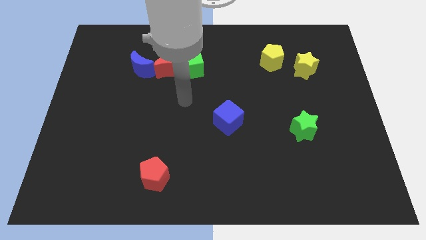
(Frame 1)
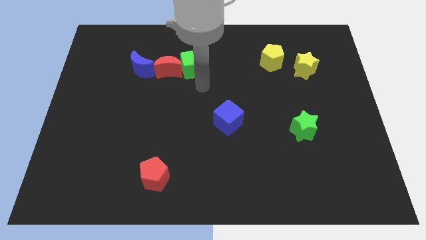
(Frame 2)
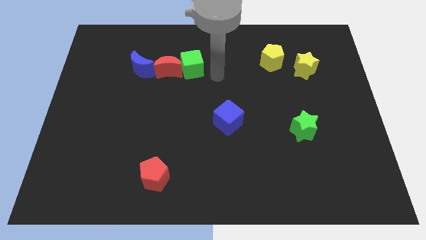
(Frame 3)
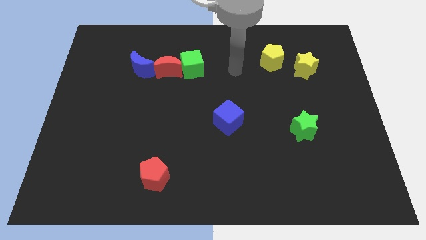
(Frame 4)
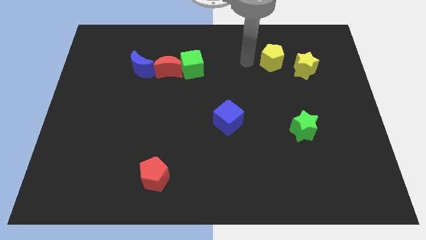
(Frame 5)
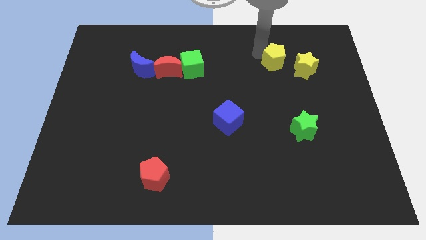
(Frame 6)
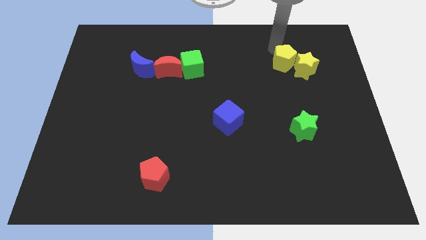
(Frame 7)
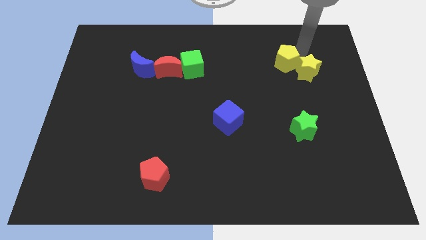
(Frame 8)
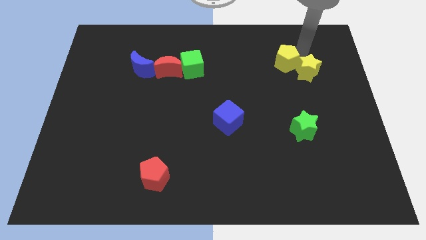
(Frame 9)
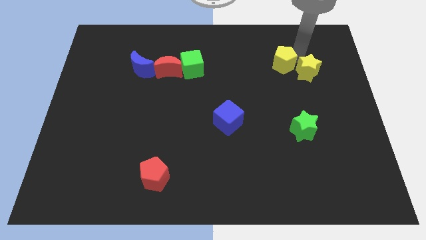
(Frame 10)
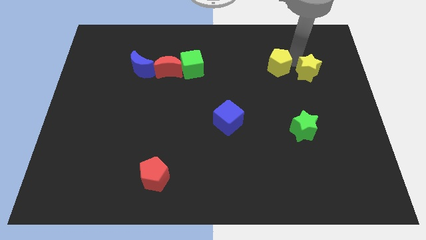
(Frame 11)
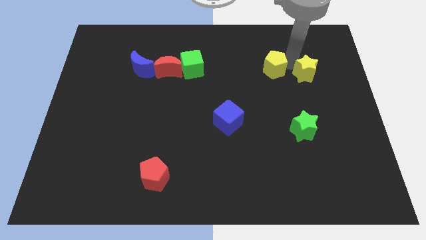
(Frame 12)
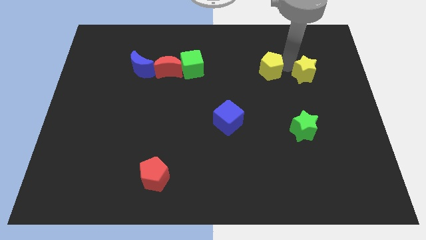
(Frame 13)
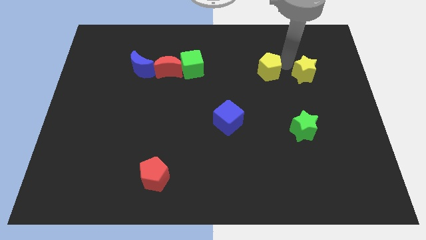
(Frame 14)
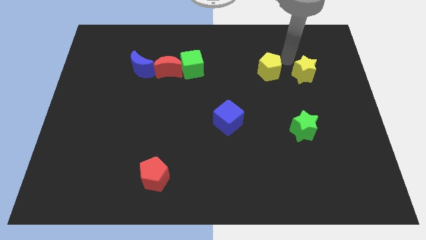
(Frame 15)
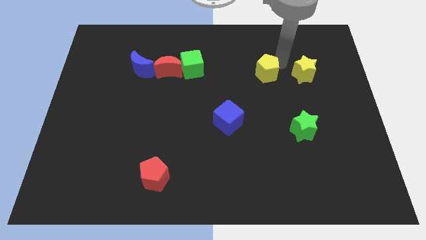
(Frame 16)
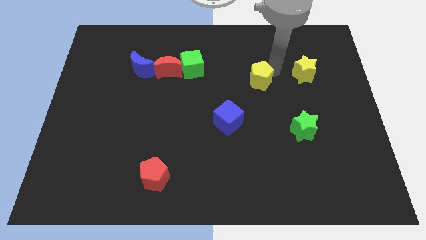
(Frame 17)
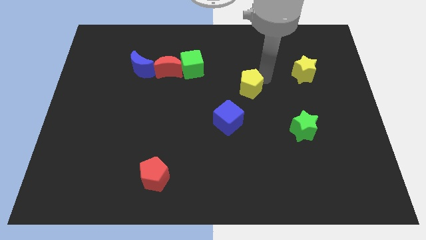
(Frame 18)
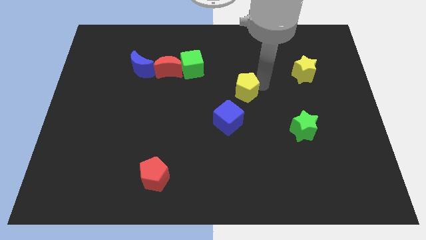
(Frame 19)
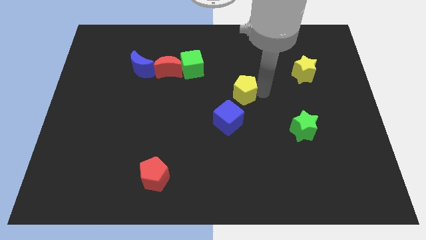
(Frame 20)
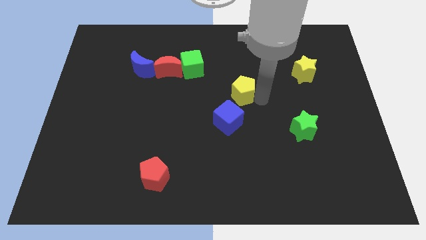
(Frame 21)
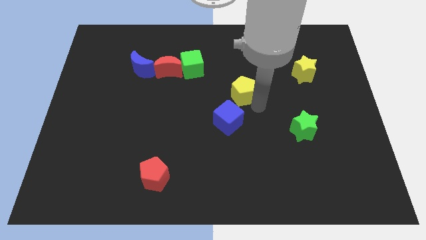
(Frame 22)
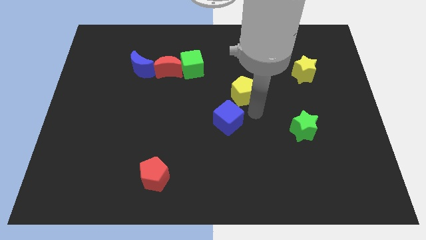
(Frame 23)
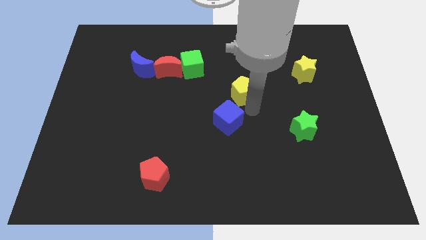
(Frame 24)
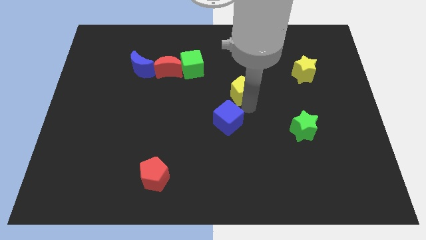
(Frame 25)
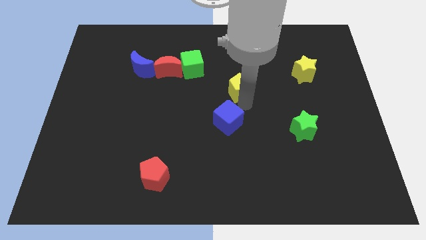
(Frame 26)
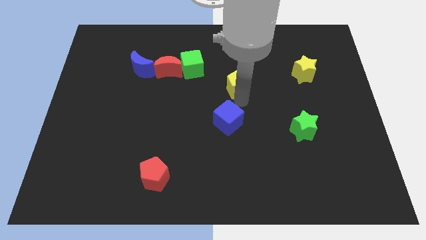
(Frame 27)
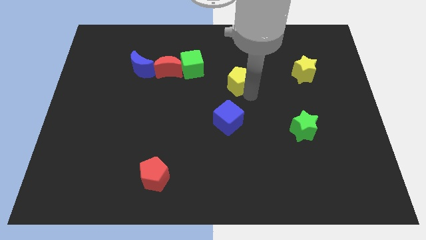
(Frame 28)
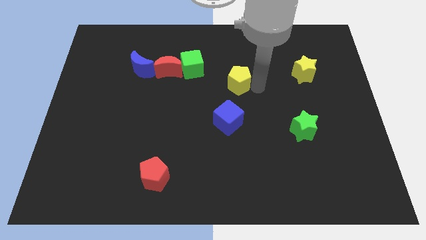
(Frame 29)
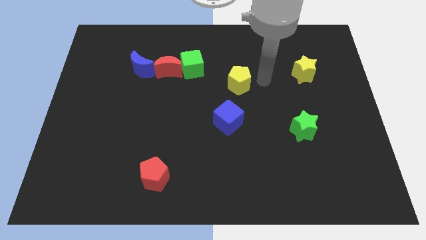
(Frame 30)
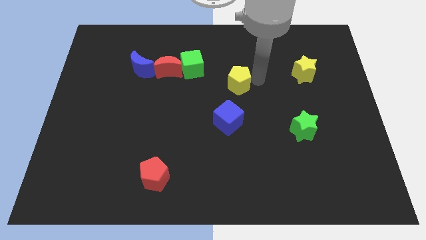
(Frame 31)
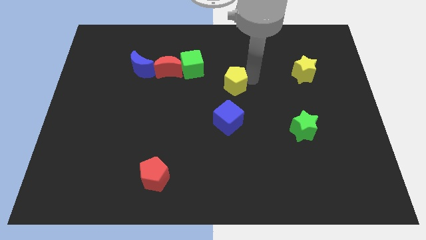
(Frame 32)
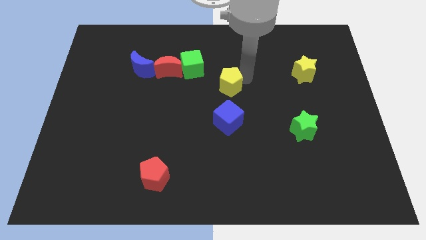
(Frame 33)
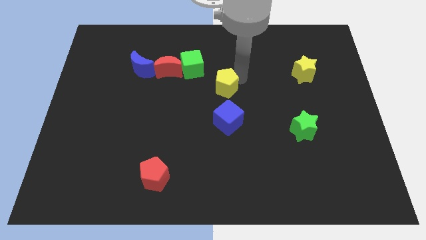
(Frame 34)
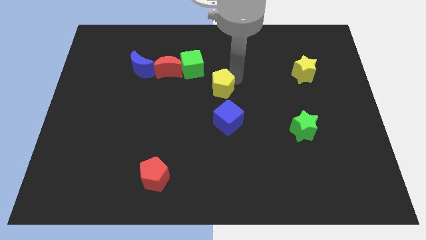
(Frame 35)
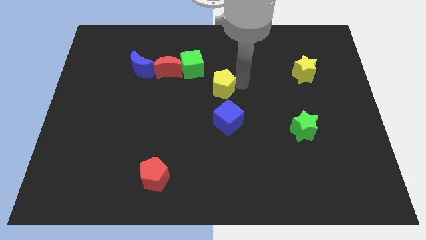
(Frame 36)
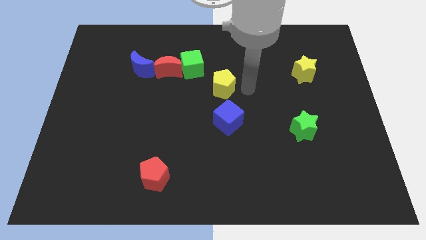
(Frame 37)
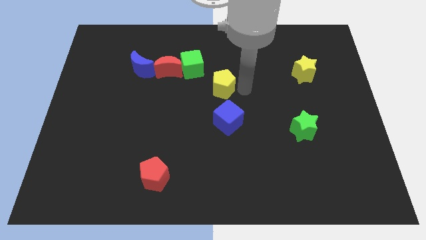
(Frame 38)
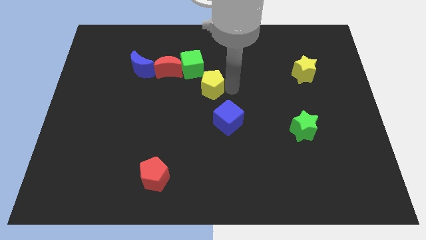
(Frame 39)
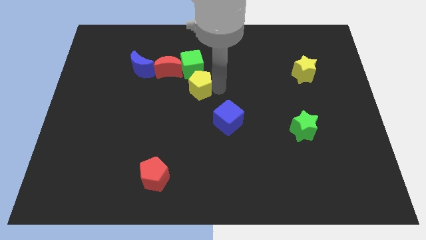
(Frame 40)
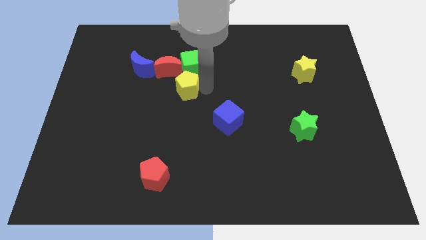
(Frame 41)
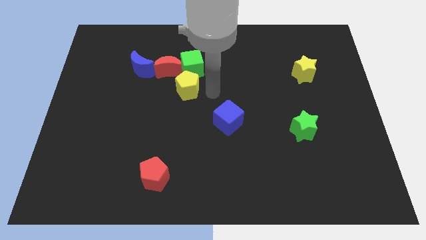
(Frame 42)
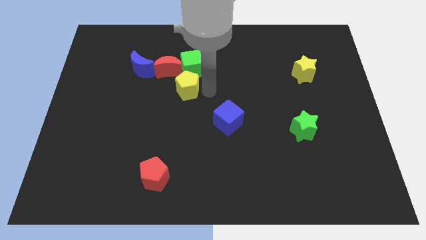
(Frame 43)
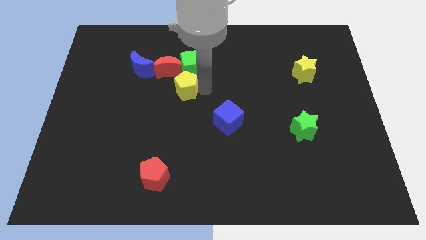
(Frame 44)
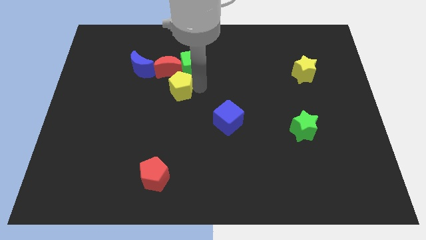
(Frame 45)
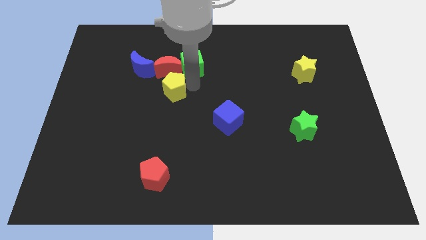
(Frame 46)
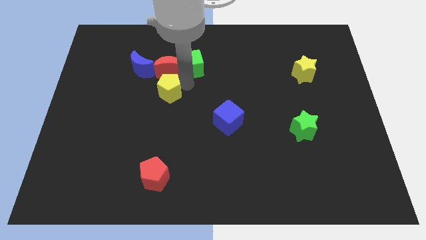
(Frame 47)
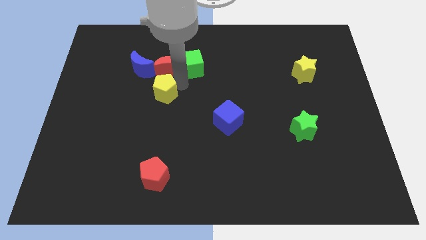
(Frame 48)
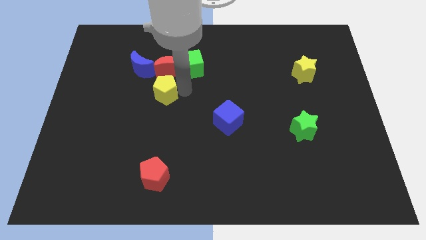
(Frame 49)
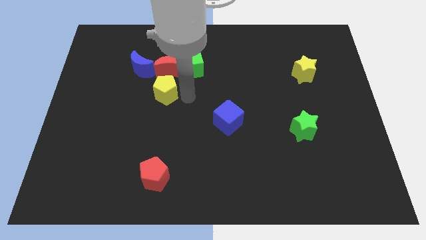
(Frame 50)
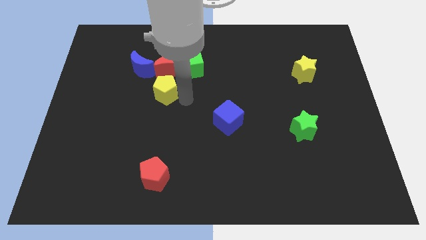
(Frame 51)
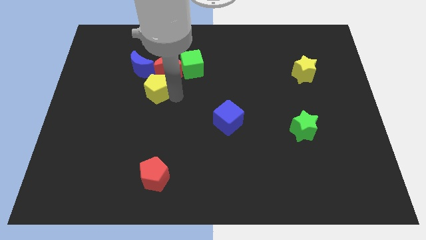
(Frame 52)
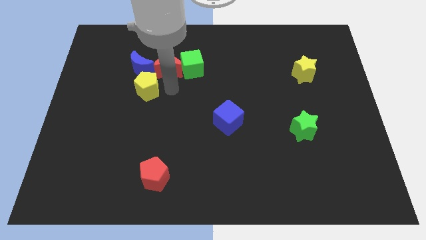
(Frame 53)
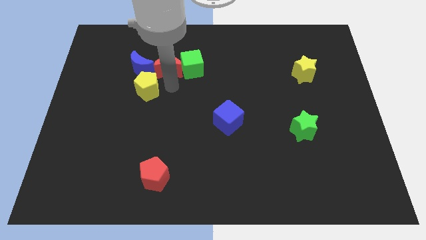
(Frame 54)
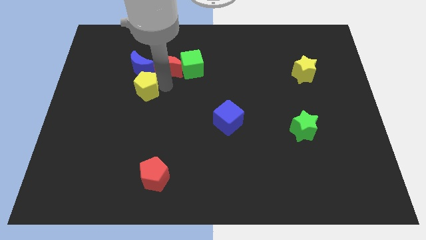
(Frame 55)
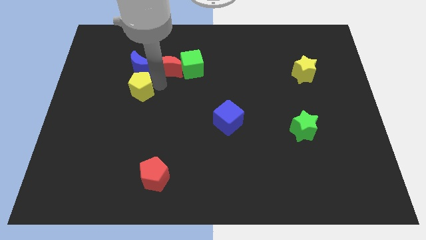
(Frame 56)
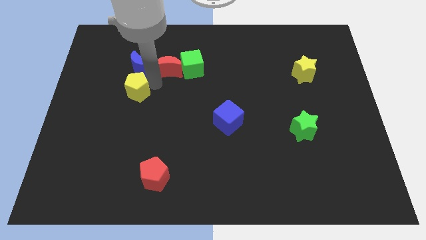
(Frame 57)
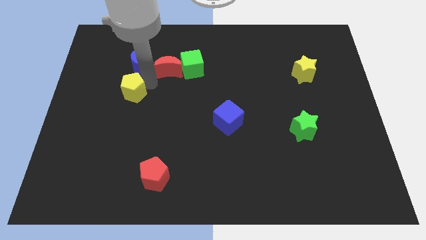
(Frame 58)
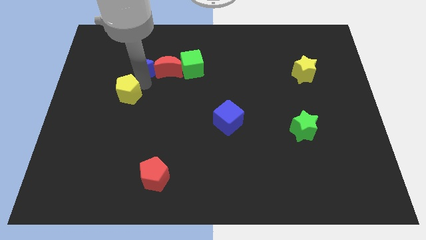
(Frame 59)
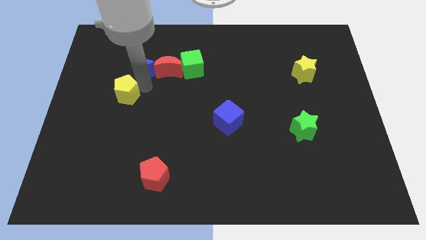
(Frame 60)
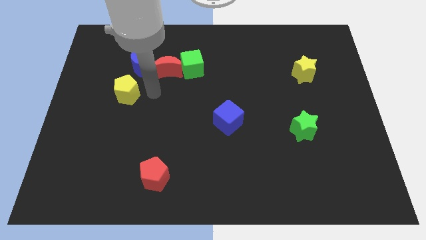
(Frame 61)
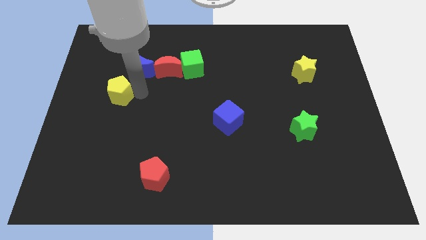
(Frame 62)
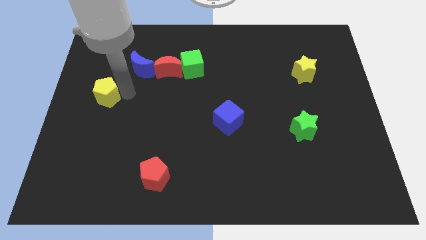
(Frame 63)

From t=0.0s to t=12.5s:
slide the yellow pentagon to the left side

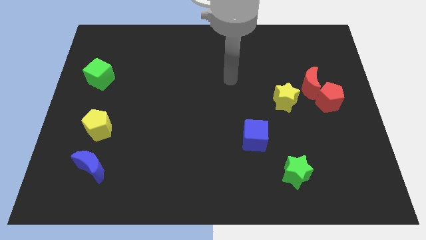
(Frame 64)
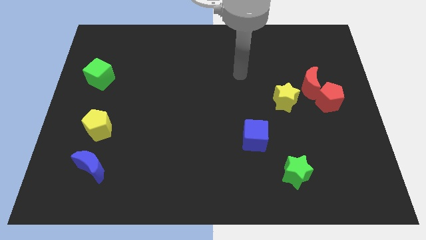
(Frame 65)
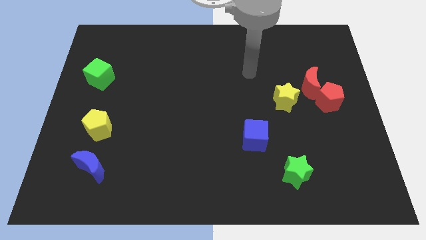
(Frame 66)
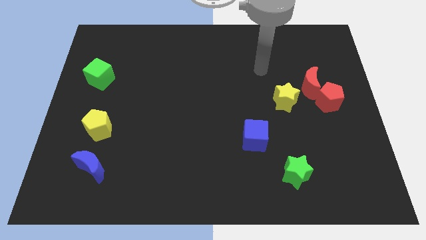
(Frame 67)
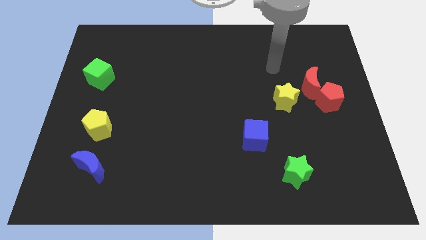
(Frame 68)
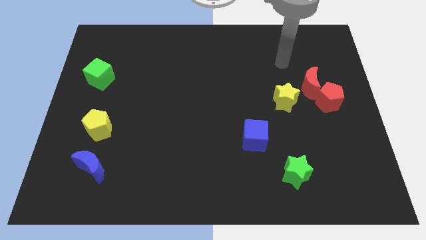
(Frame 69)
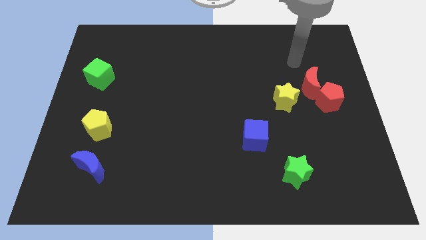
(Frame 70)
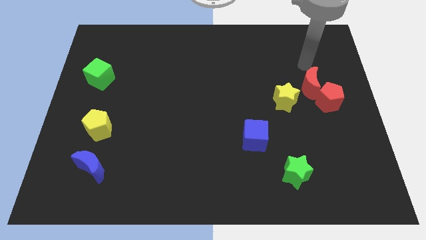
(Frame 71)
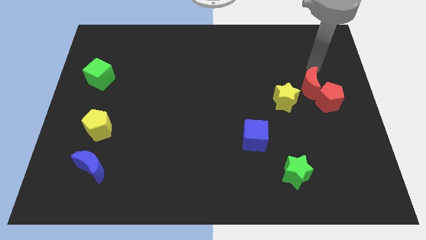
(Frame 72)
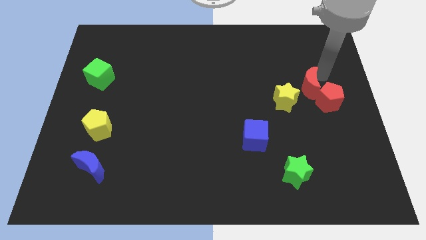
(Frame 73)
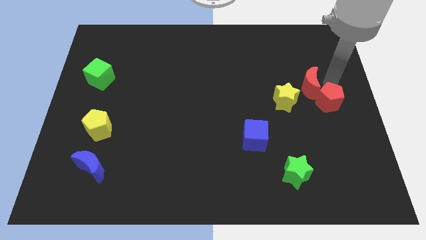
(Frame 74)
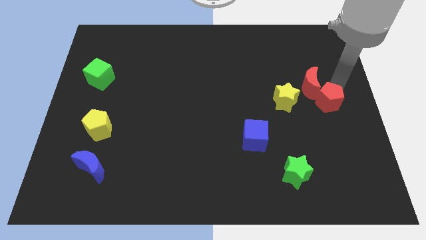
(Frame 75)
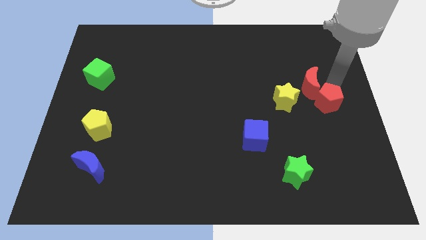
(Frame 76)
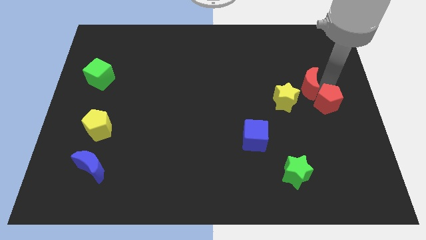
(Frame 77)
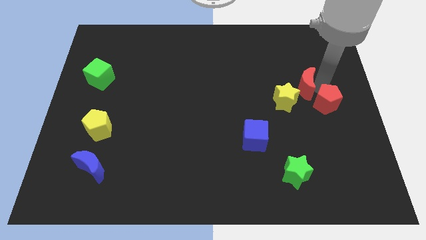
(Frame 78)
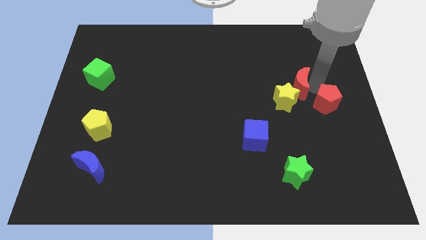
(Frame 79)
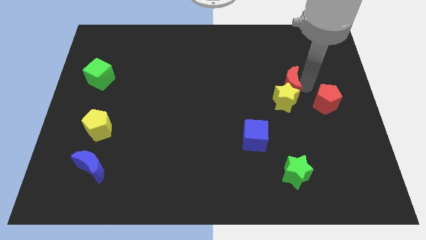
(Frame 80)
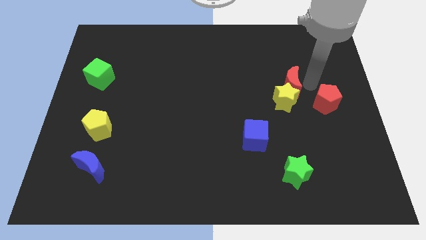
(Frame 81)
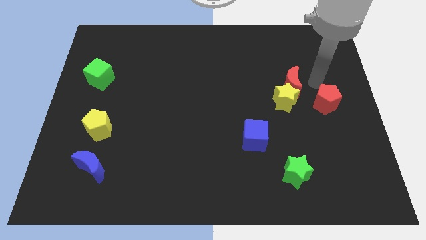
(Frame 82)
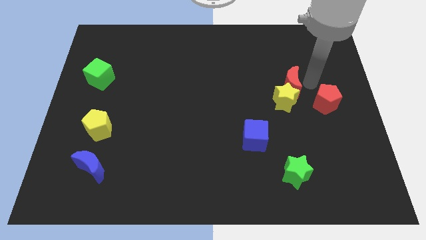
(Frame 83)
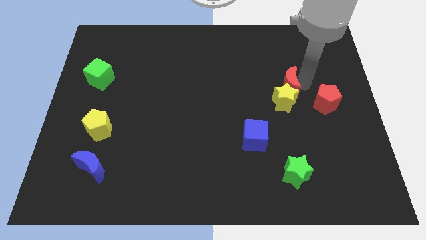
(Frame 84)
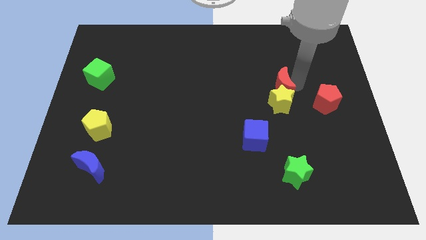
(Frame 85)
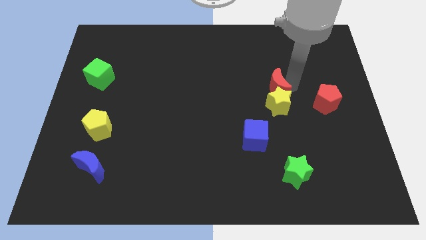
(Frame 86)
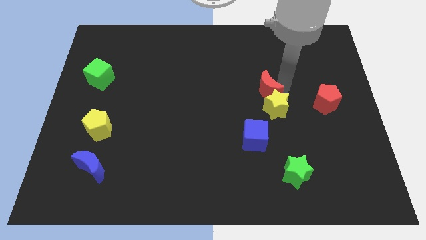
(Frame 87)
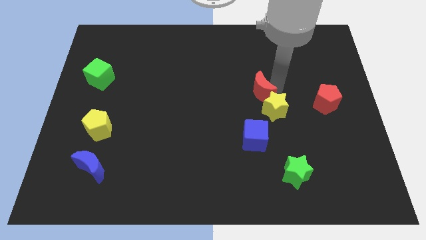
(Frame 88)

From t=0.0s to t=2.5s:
move the red moon to the middle of the board
